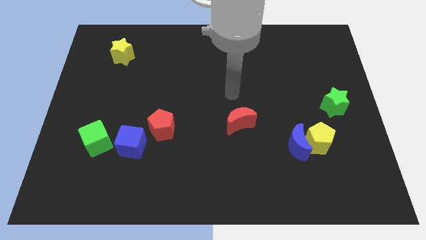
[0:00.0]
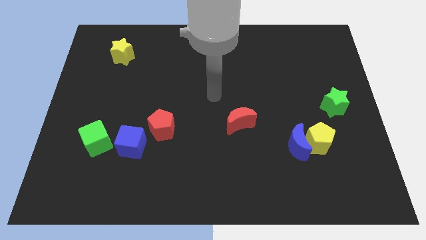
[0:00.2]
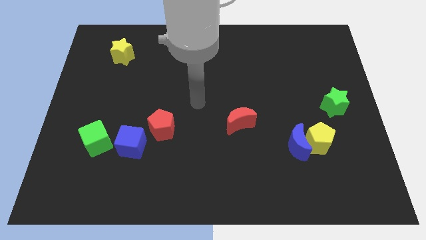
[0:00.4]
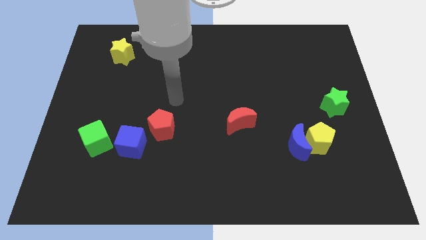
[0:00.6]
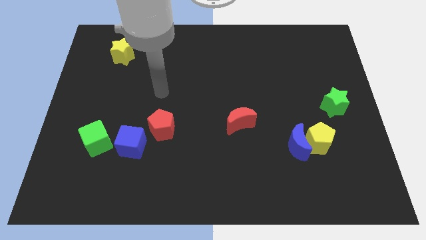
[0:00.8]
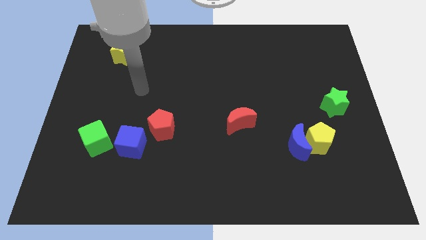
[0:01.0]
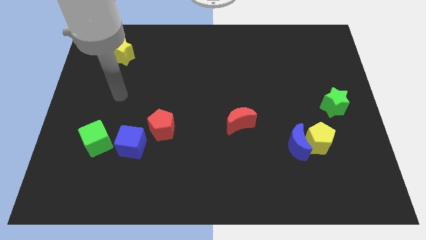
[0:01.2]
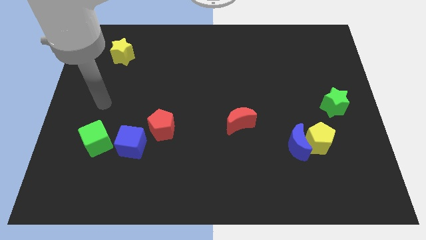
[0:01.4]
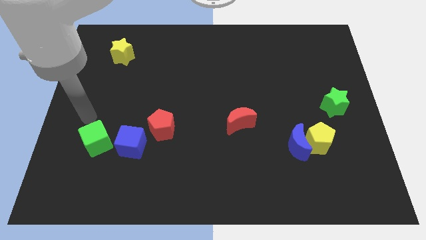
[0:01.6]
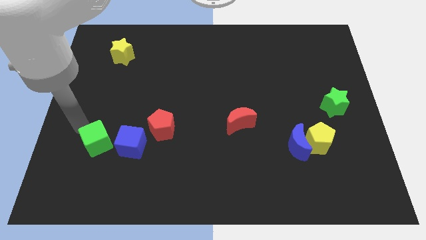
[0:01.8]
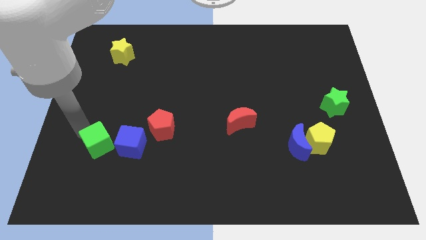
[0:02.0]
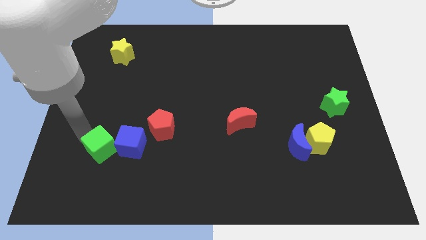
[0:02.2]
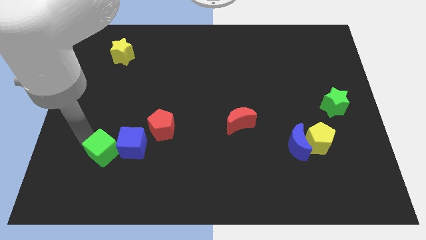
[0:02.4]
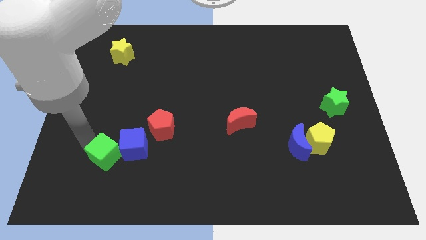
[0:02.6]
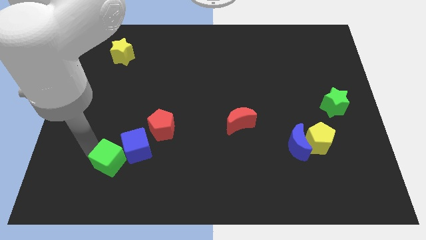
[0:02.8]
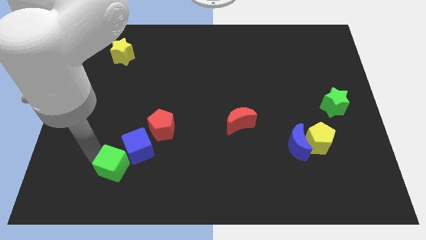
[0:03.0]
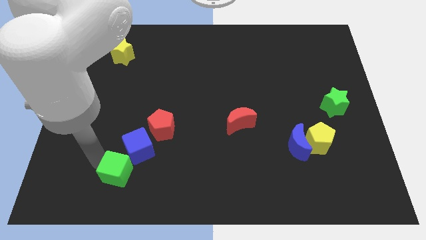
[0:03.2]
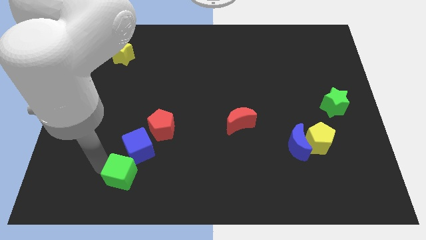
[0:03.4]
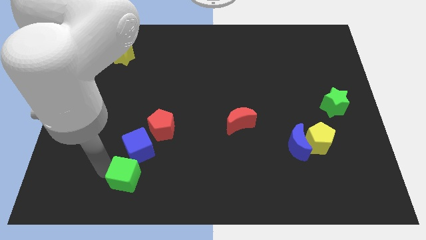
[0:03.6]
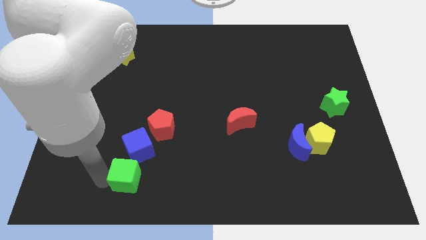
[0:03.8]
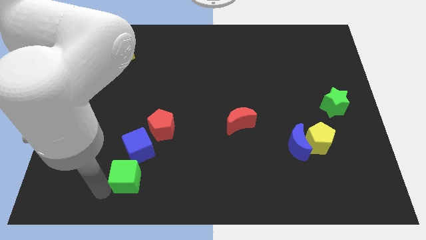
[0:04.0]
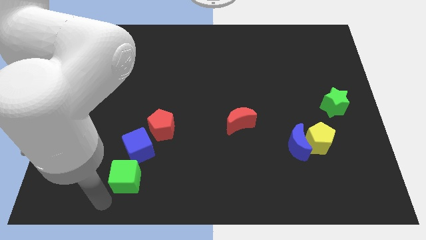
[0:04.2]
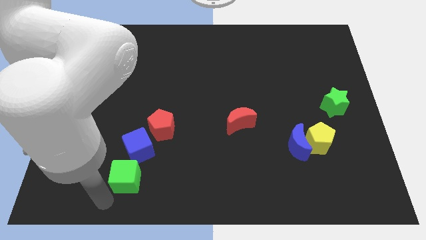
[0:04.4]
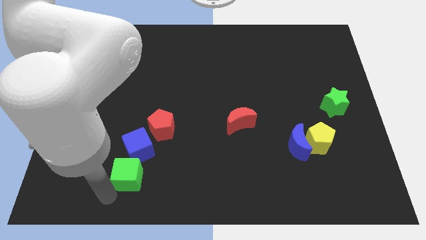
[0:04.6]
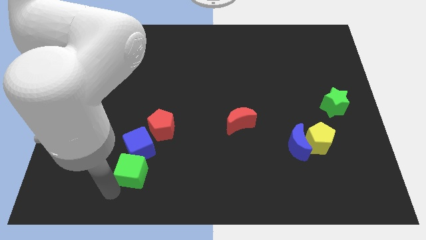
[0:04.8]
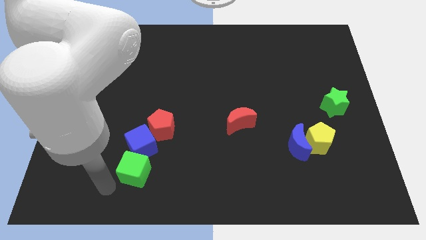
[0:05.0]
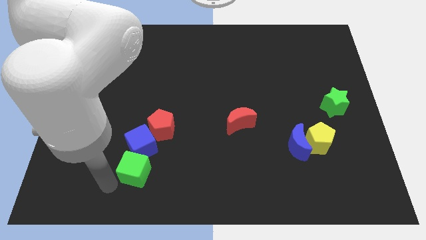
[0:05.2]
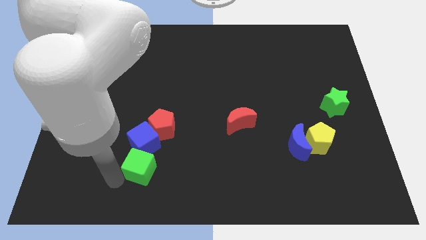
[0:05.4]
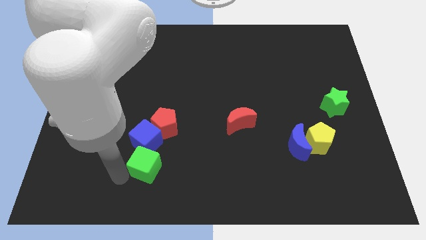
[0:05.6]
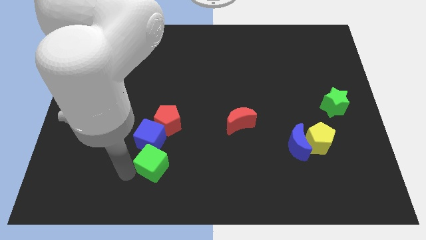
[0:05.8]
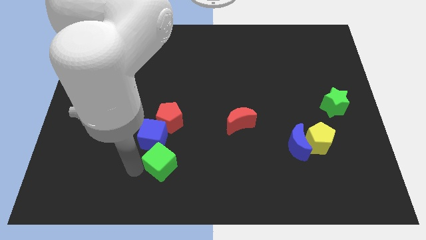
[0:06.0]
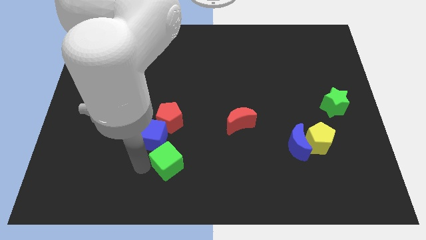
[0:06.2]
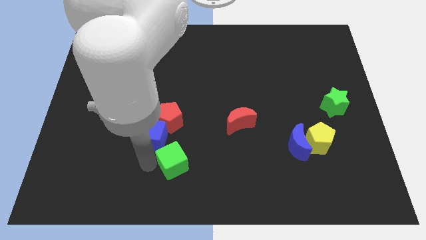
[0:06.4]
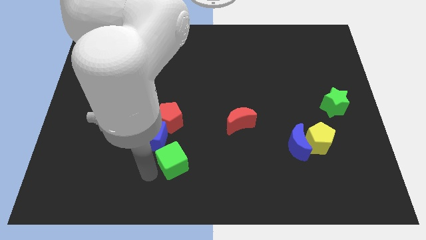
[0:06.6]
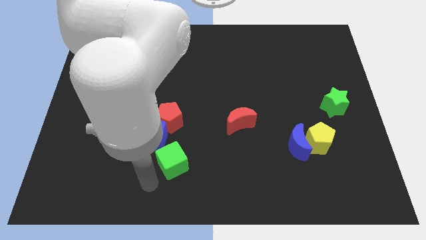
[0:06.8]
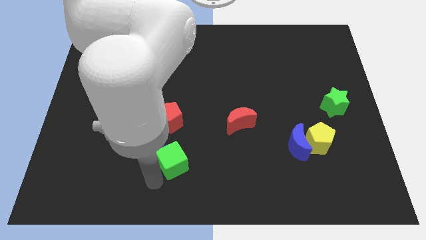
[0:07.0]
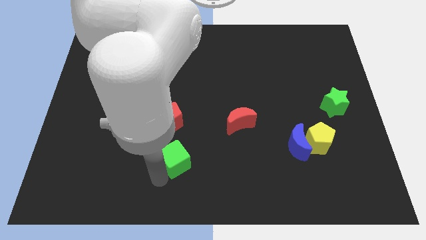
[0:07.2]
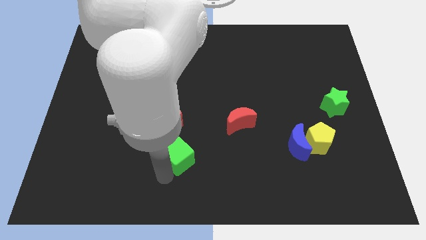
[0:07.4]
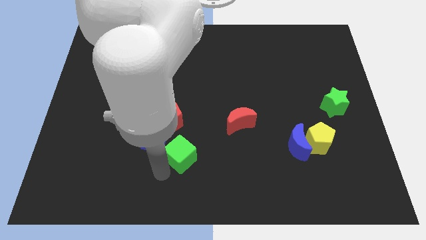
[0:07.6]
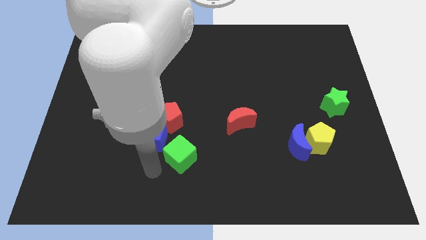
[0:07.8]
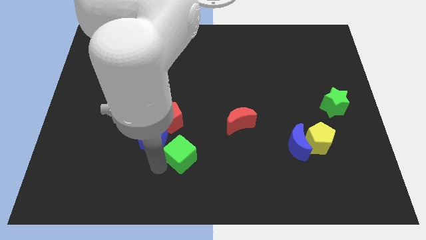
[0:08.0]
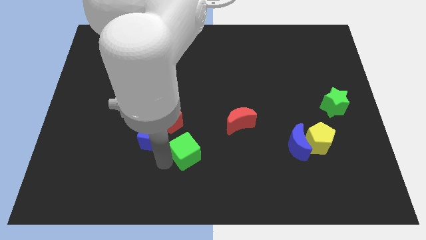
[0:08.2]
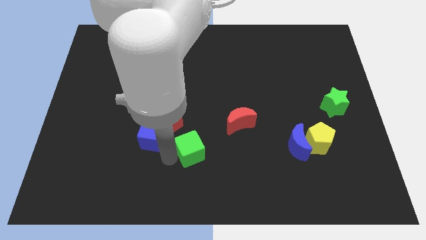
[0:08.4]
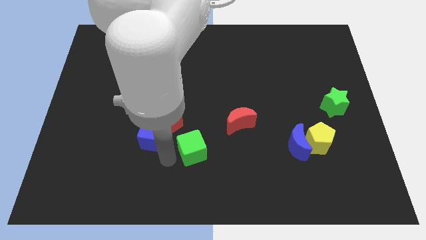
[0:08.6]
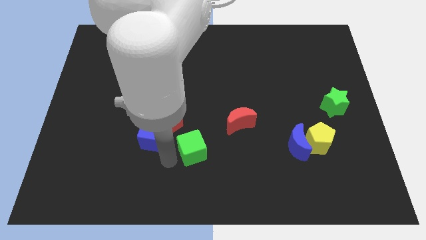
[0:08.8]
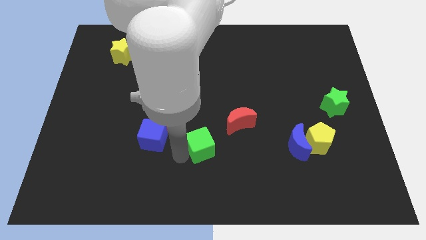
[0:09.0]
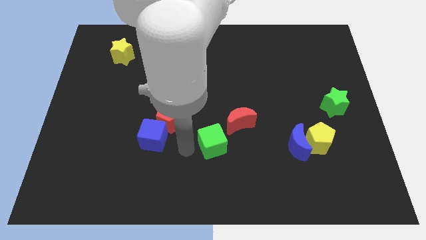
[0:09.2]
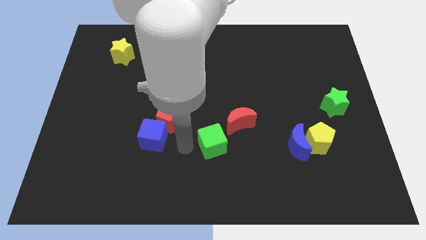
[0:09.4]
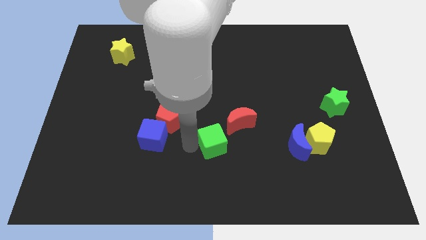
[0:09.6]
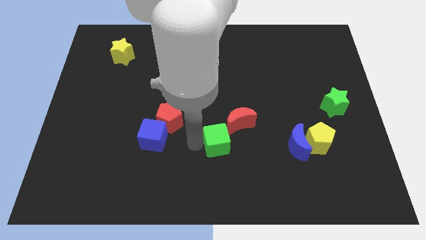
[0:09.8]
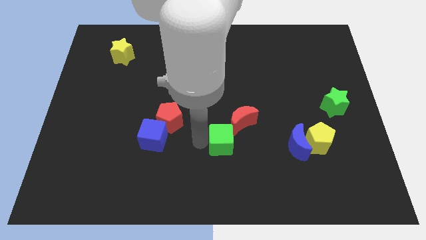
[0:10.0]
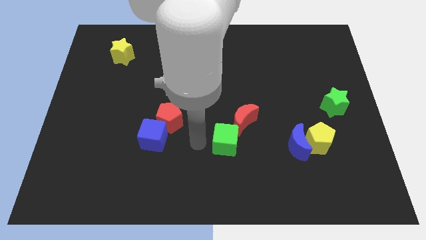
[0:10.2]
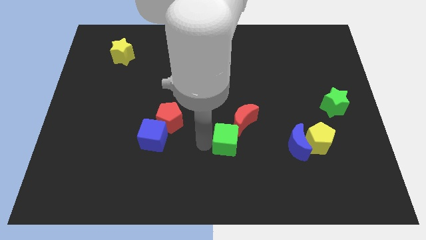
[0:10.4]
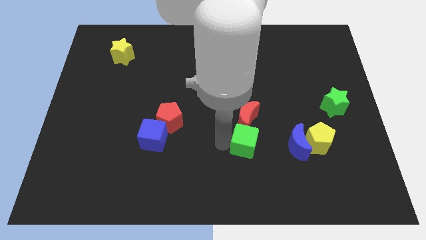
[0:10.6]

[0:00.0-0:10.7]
move the green cube just left of the yellow pentagon

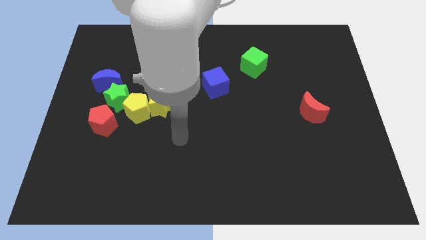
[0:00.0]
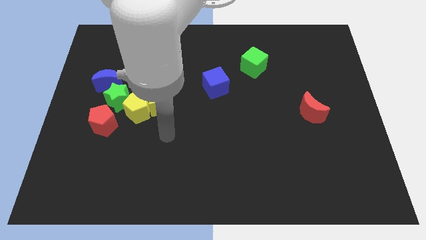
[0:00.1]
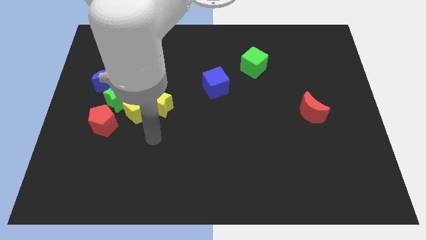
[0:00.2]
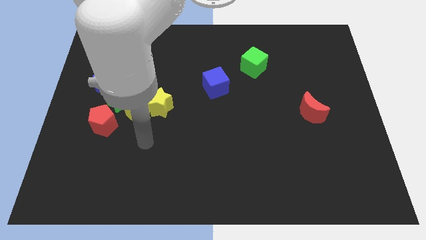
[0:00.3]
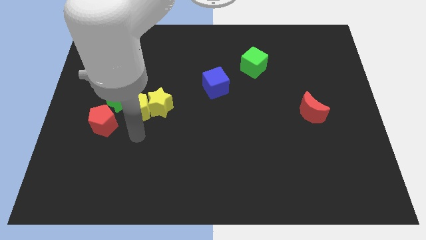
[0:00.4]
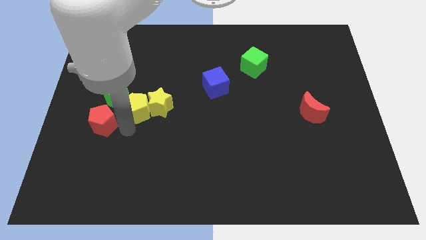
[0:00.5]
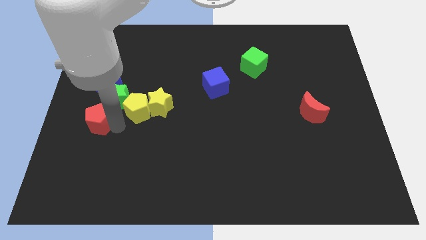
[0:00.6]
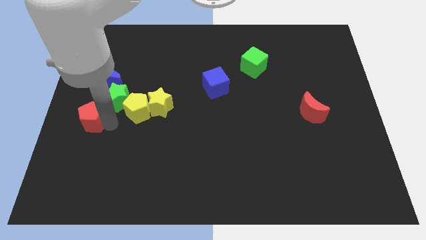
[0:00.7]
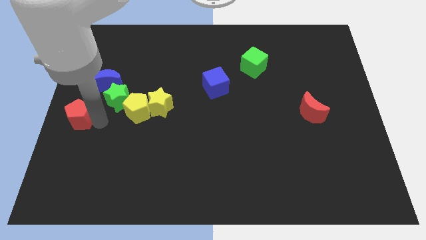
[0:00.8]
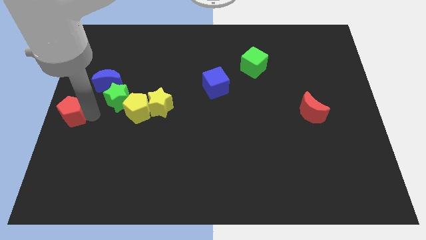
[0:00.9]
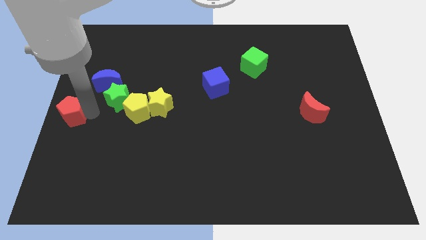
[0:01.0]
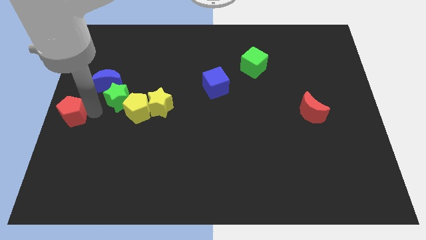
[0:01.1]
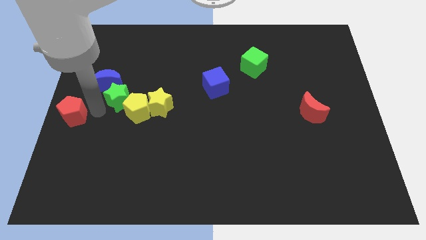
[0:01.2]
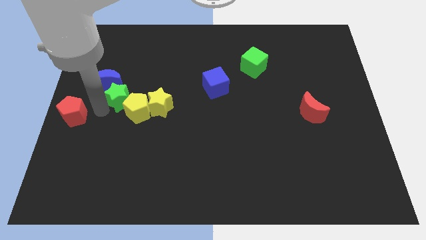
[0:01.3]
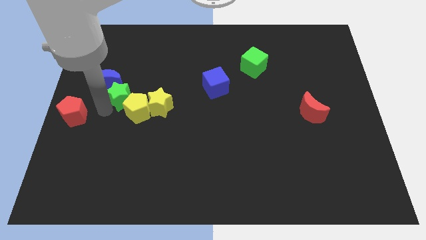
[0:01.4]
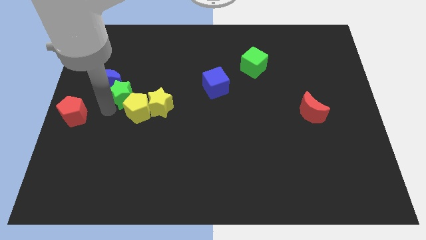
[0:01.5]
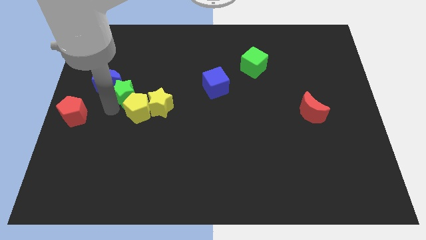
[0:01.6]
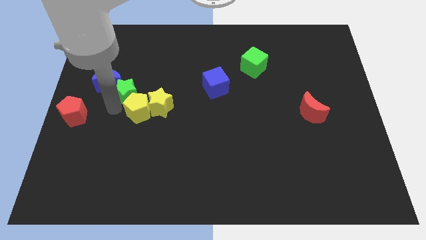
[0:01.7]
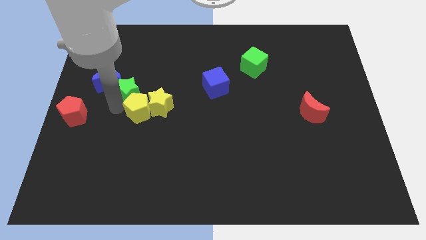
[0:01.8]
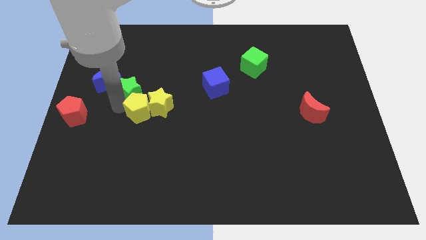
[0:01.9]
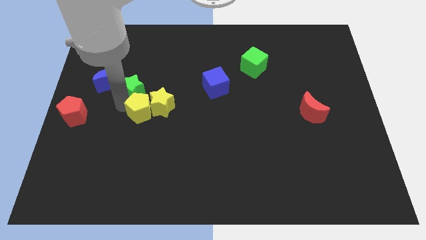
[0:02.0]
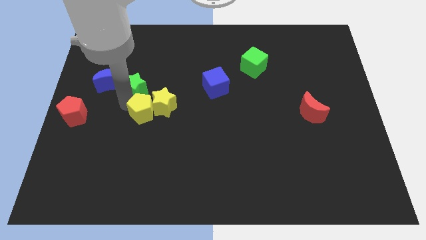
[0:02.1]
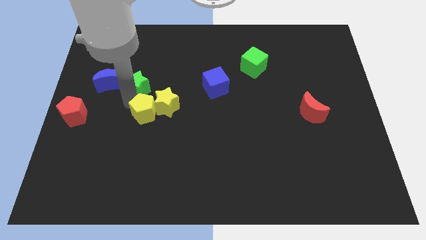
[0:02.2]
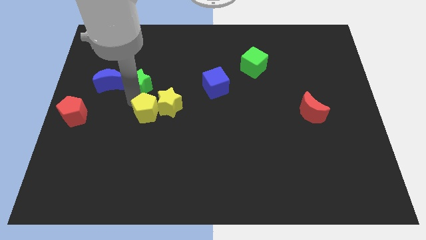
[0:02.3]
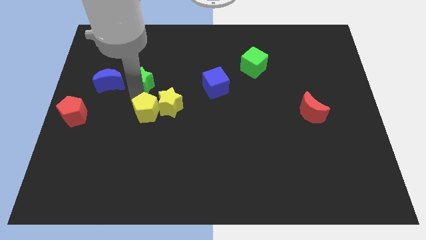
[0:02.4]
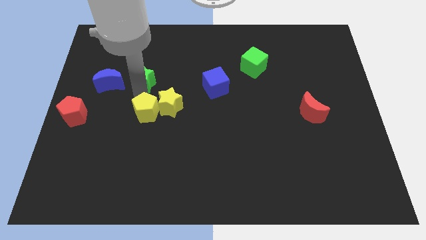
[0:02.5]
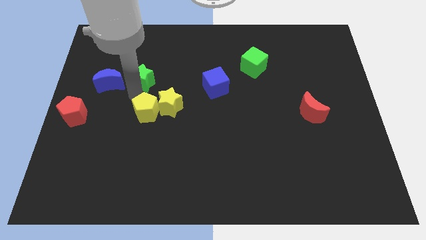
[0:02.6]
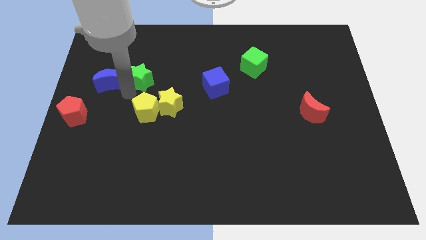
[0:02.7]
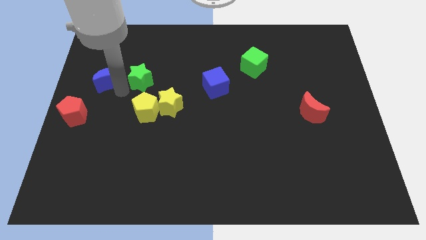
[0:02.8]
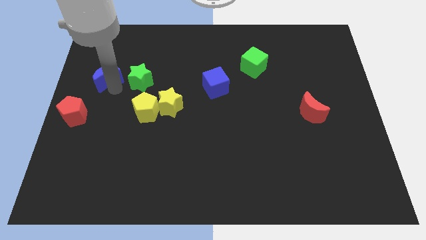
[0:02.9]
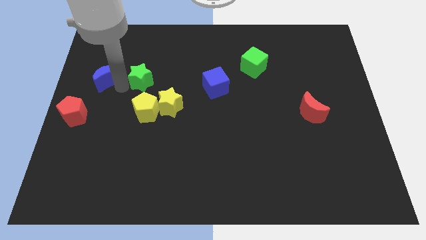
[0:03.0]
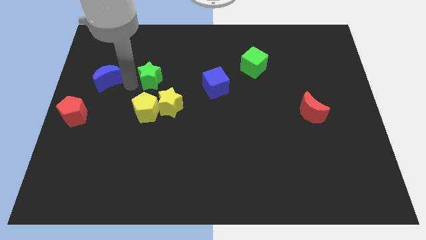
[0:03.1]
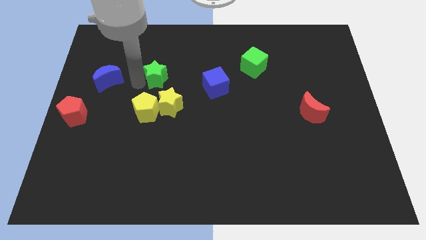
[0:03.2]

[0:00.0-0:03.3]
slide the green star above the yellow star
